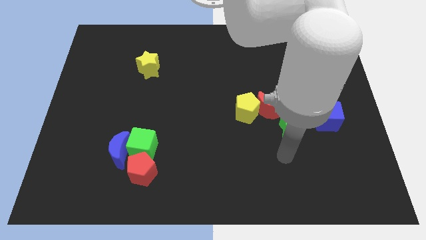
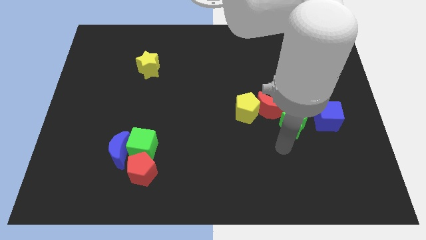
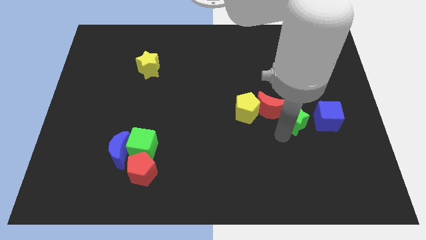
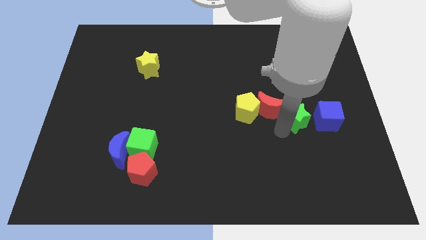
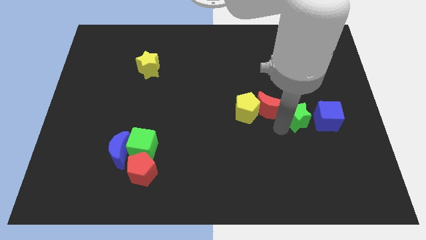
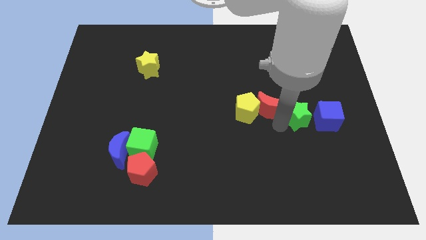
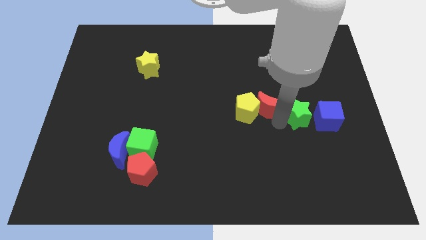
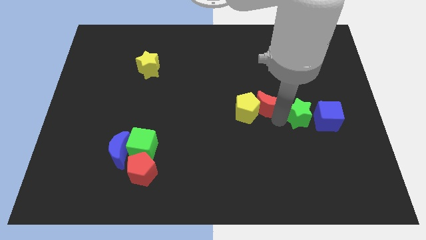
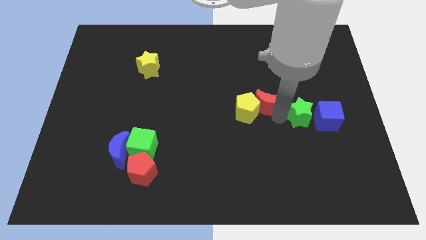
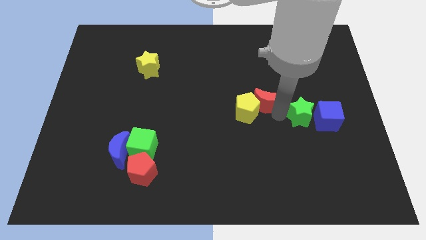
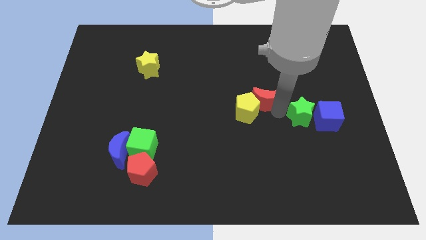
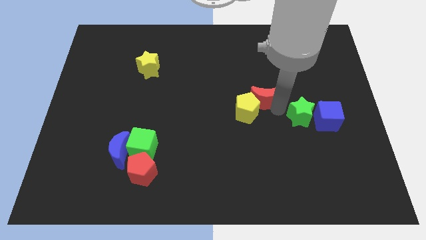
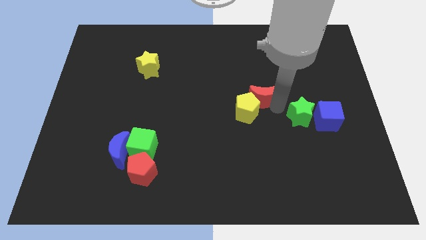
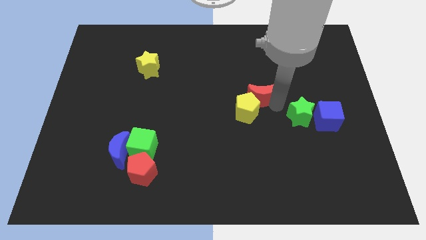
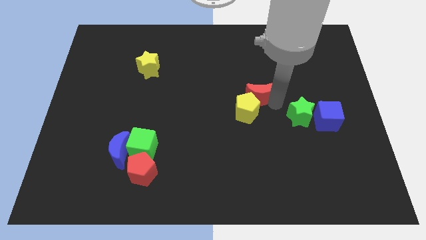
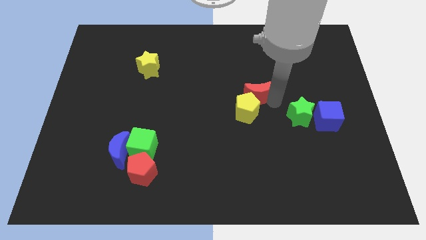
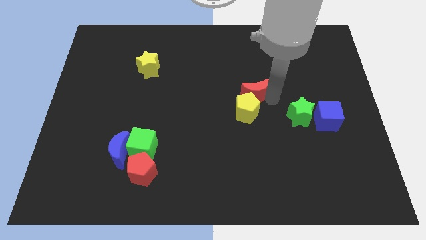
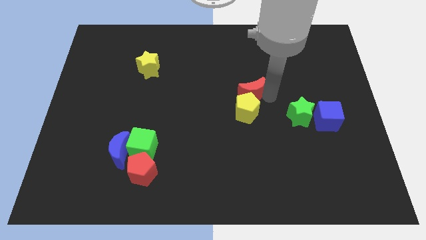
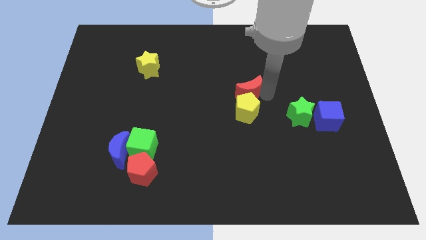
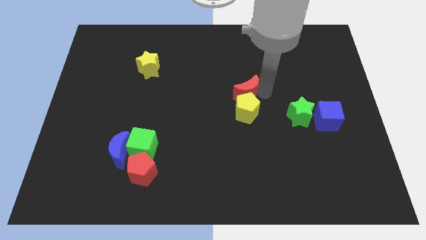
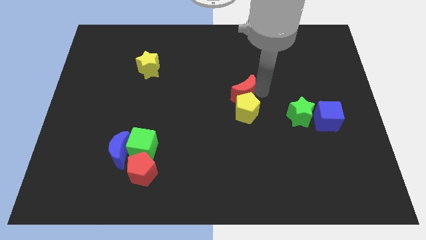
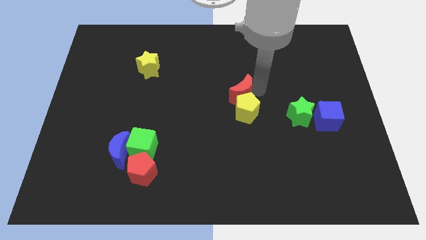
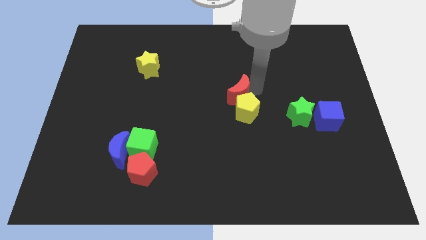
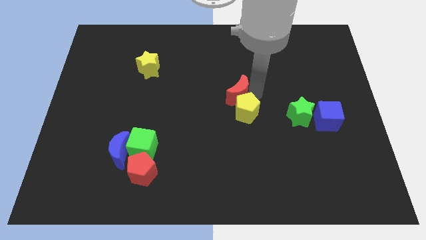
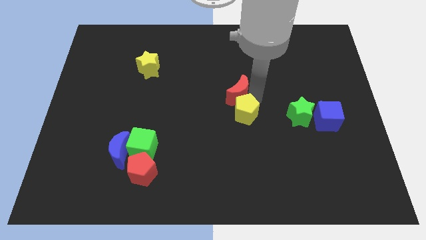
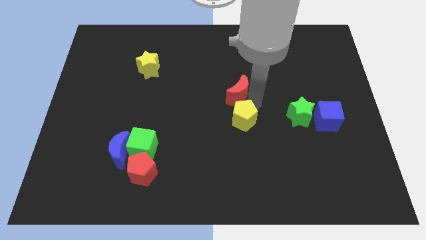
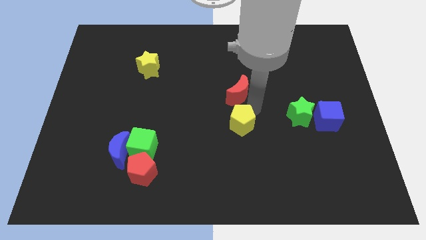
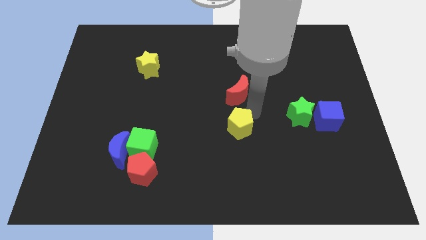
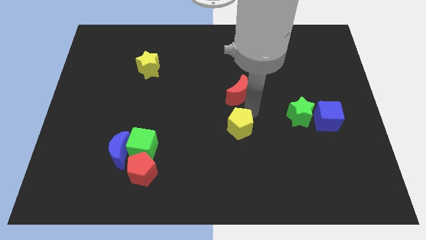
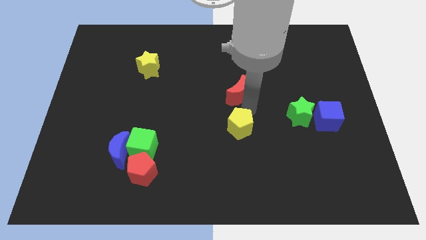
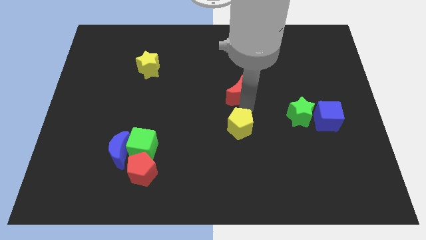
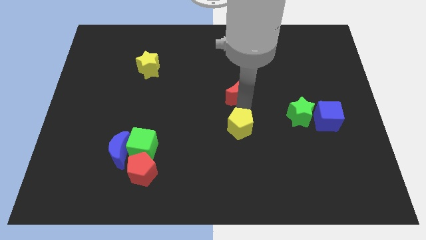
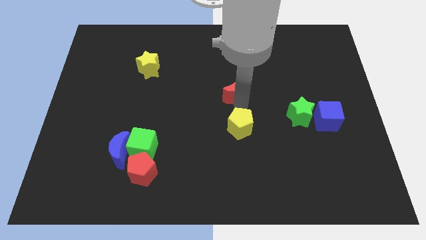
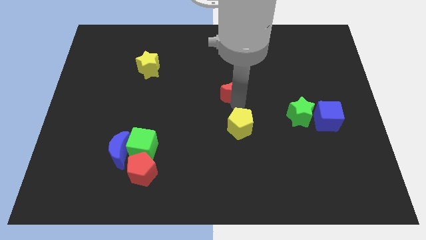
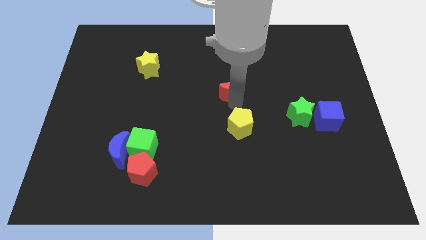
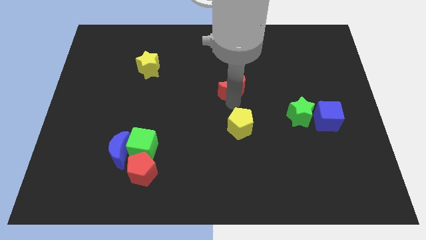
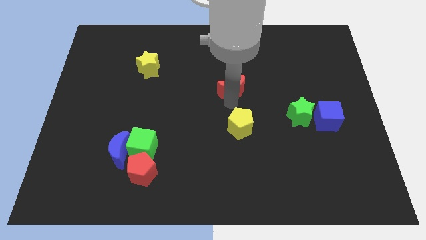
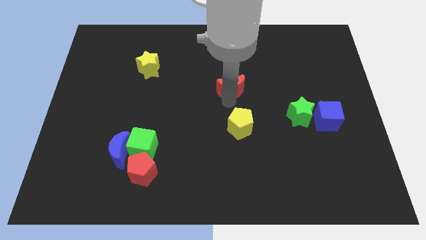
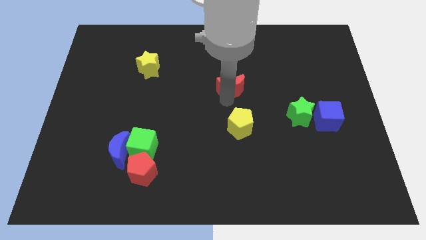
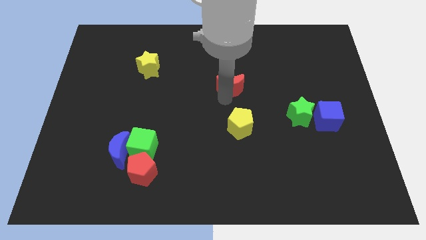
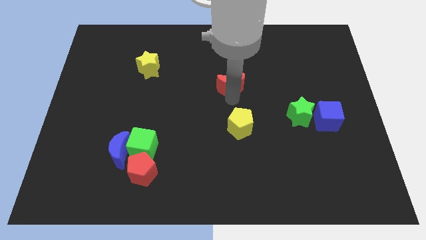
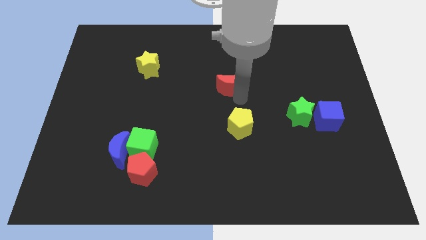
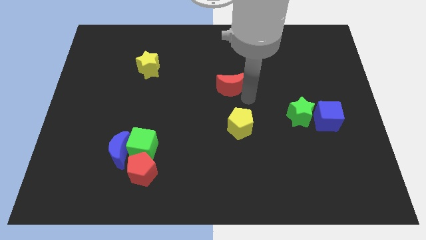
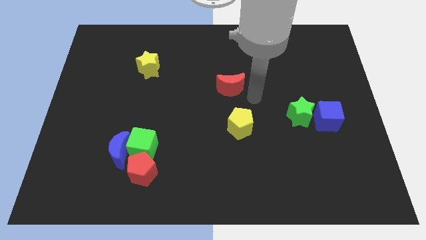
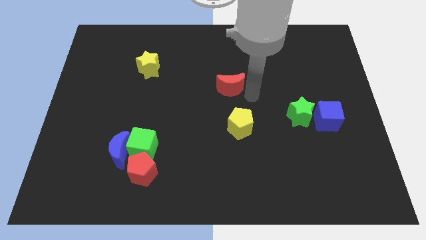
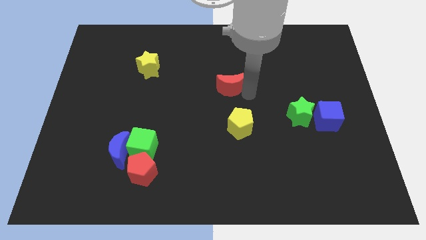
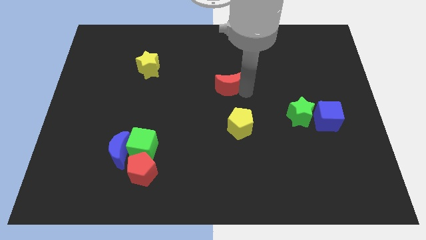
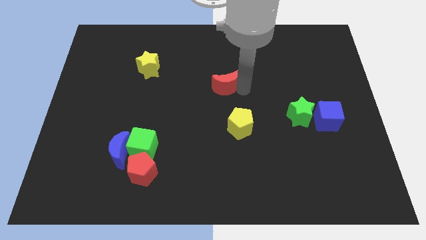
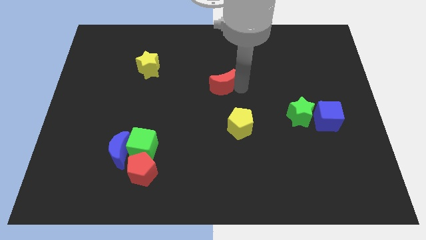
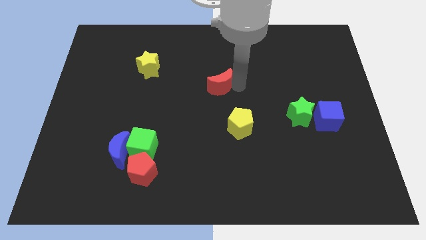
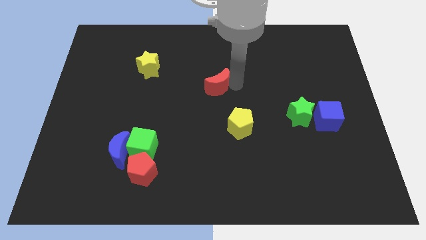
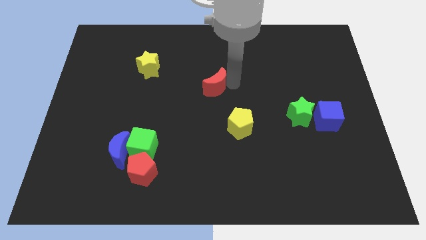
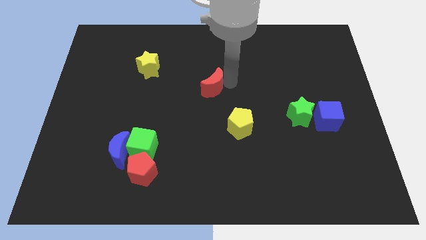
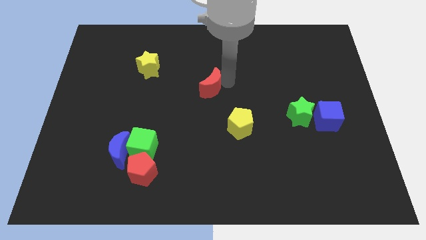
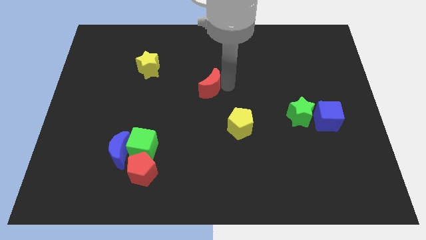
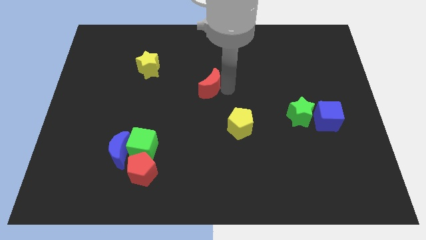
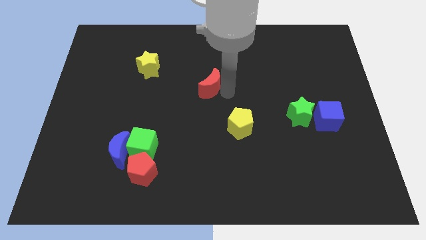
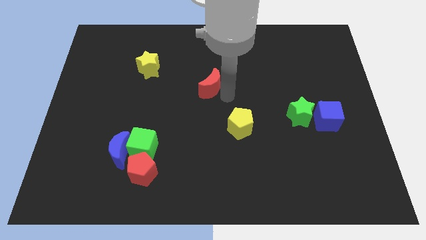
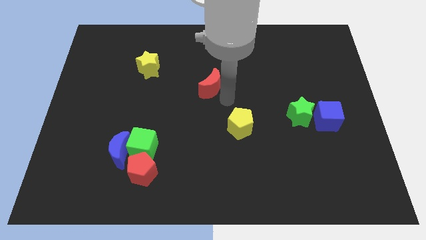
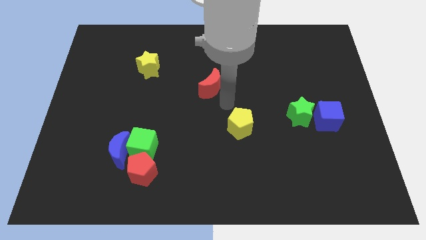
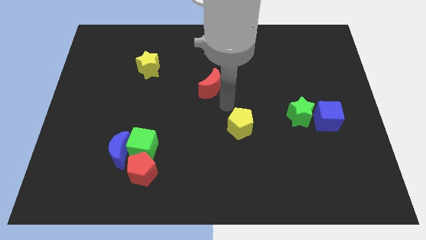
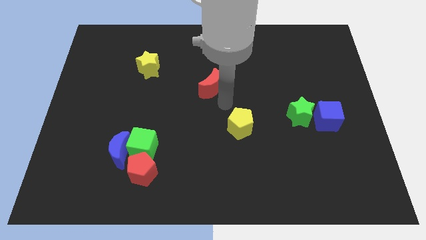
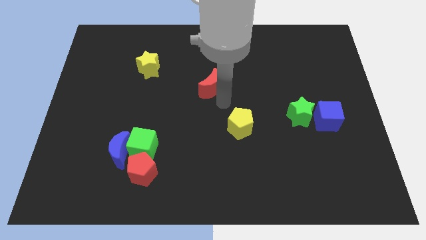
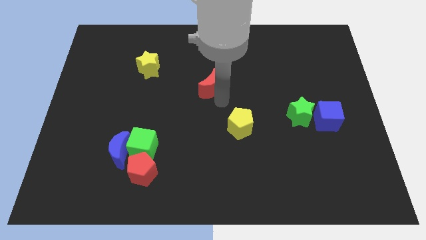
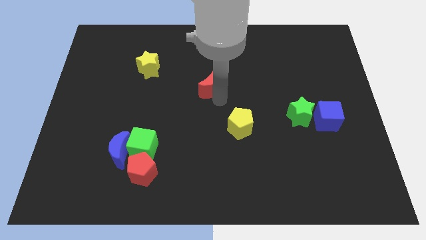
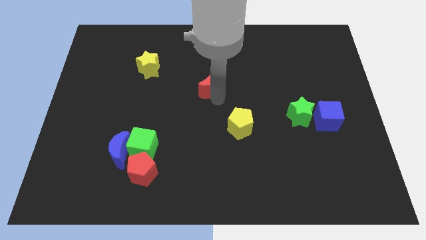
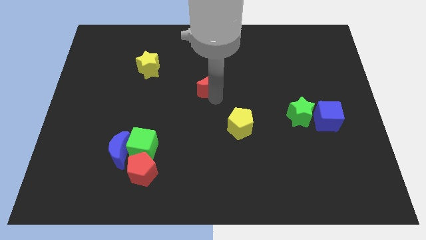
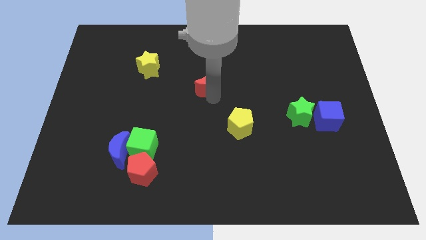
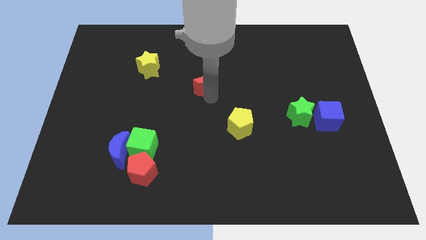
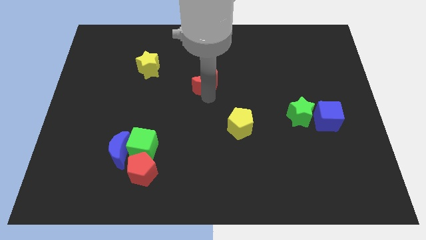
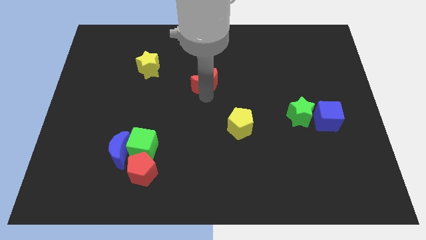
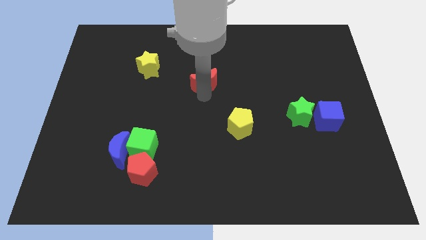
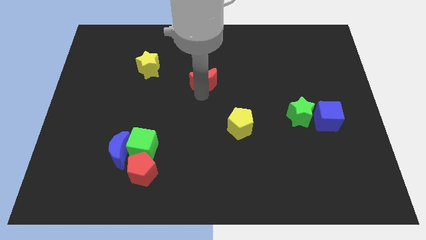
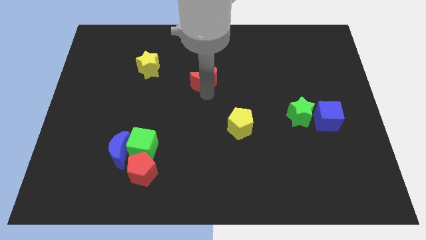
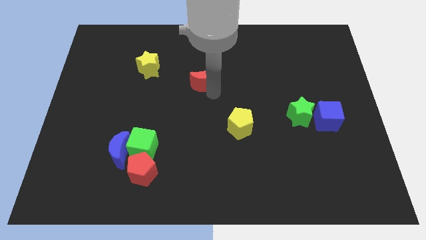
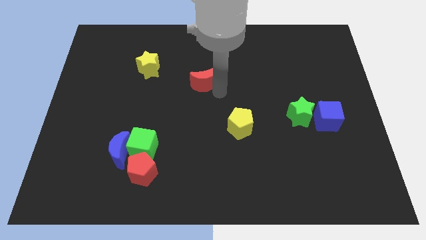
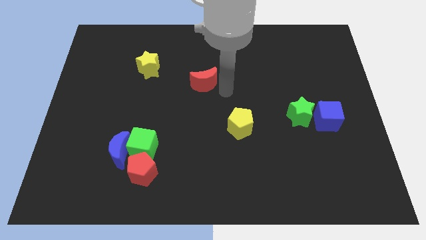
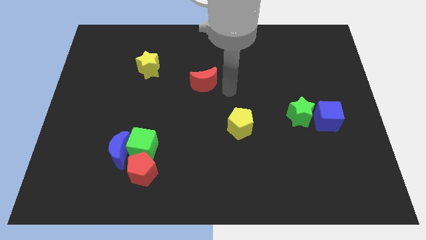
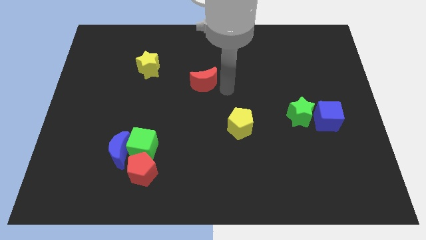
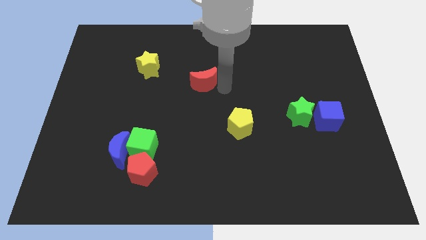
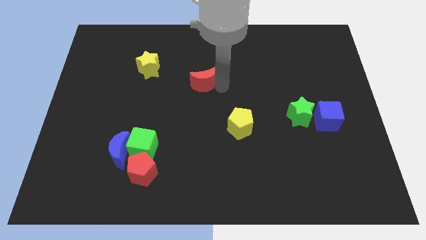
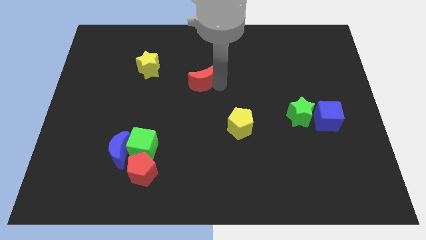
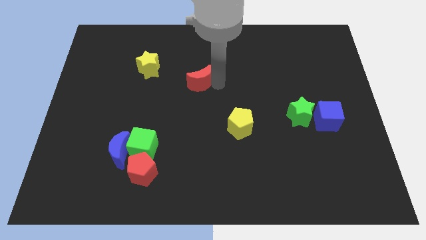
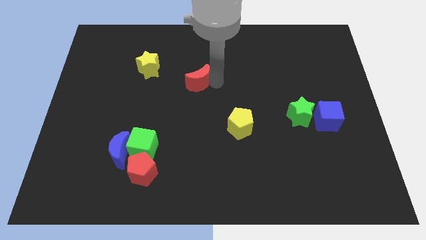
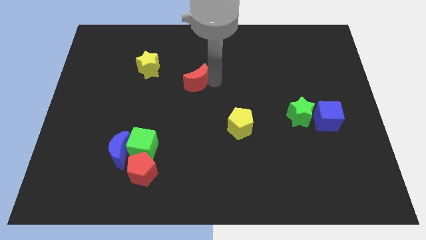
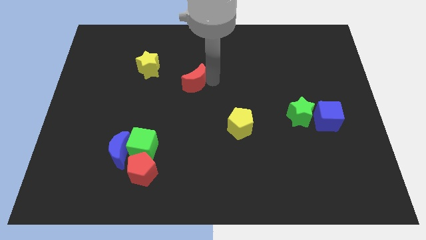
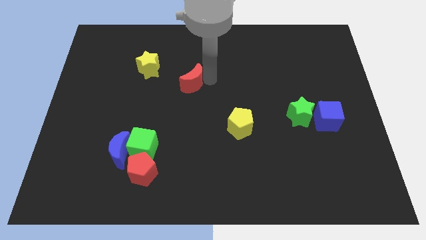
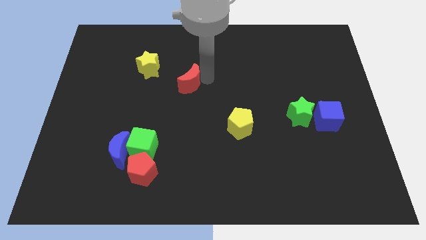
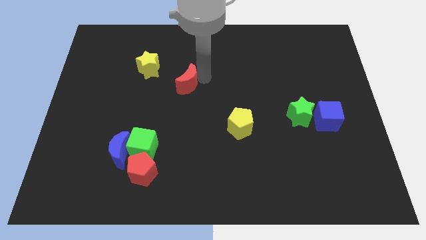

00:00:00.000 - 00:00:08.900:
put the red moon to the bottom right of the yellow star
